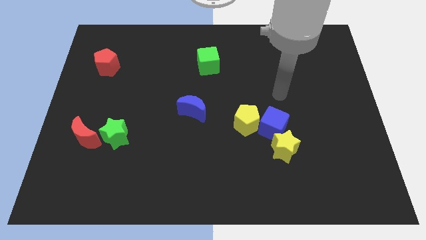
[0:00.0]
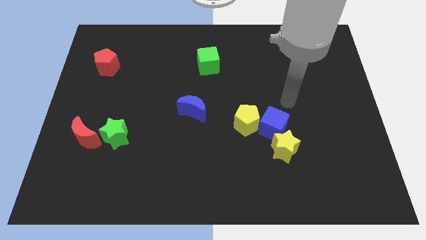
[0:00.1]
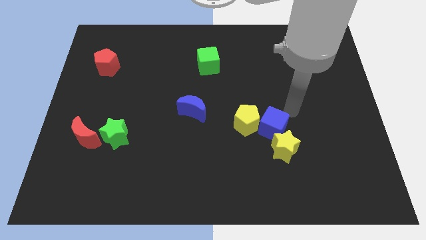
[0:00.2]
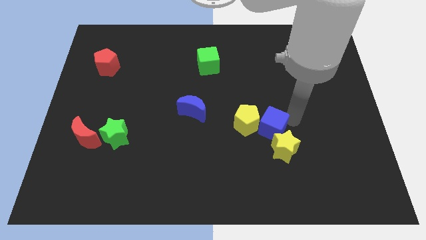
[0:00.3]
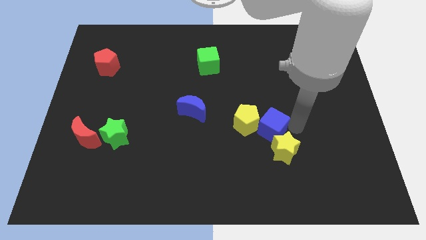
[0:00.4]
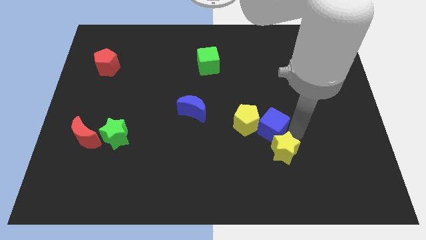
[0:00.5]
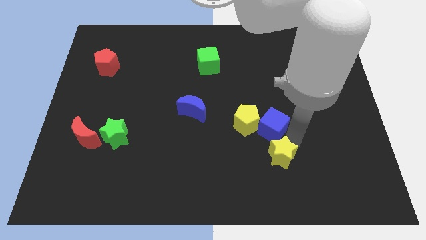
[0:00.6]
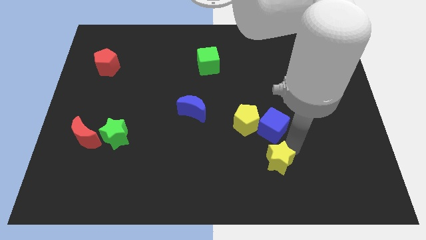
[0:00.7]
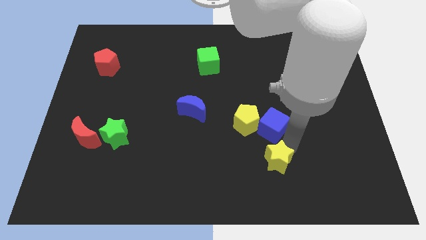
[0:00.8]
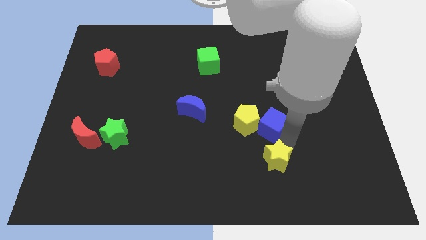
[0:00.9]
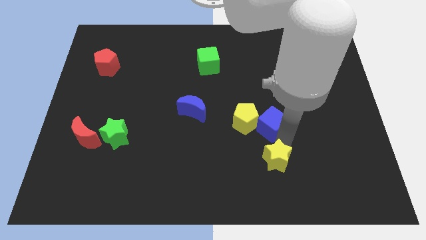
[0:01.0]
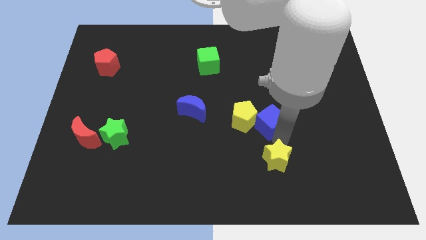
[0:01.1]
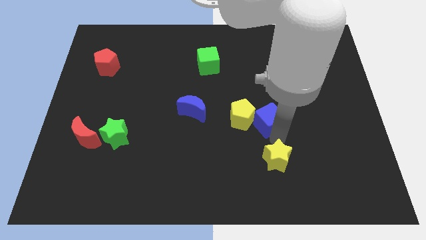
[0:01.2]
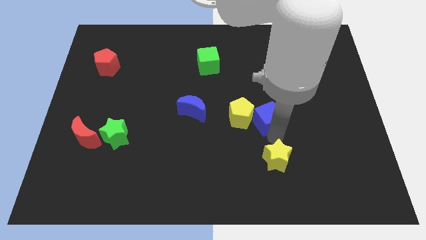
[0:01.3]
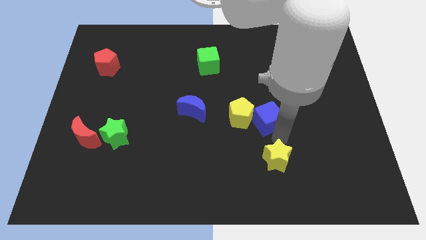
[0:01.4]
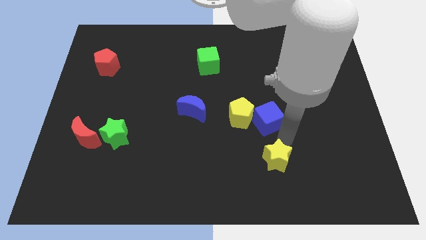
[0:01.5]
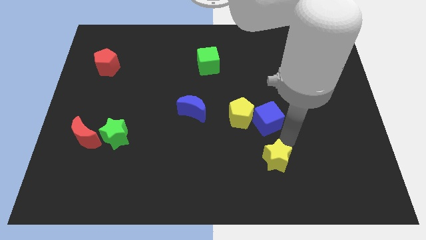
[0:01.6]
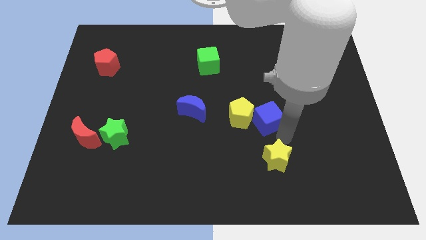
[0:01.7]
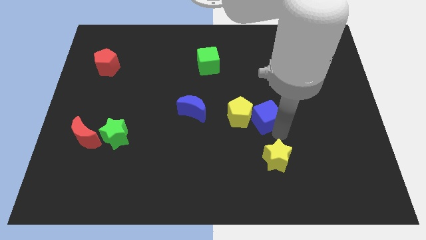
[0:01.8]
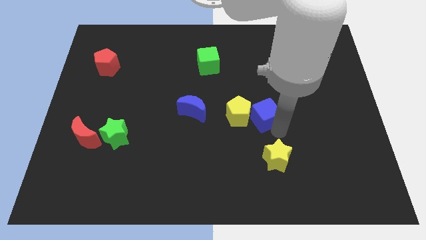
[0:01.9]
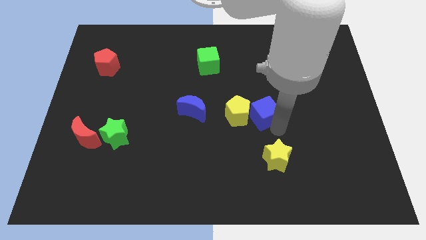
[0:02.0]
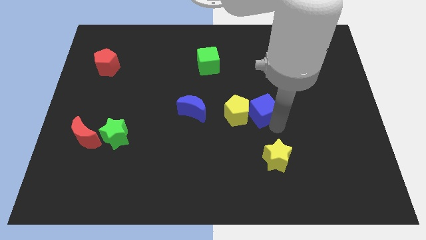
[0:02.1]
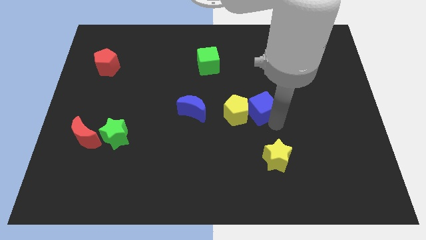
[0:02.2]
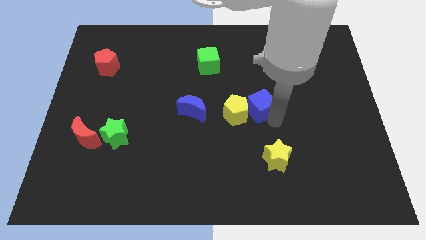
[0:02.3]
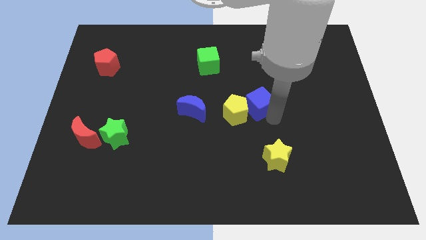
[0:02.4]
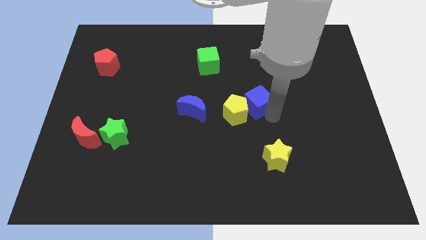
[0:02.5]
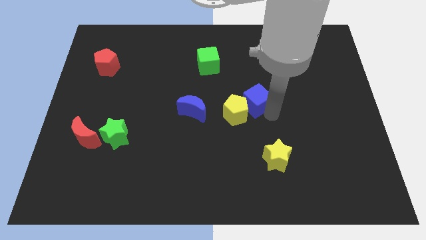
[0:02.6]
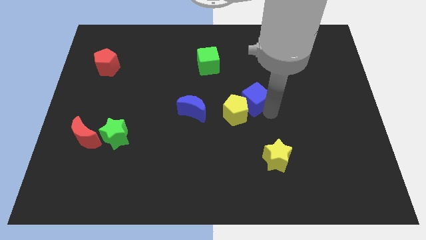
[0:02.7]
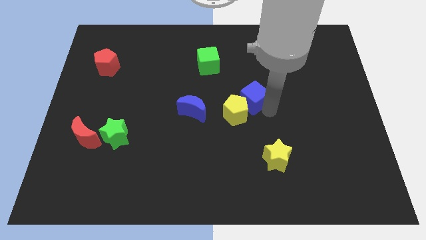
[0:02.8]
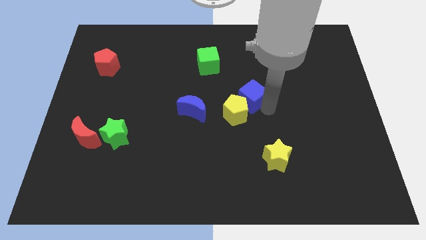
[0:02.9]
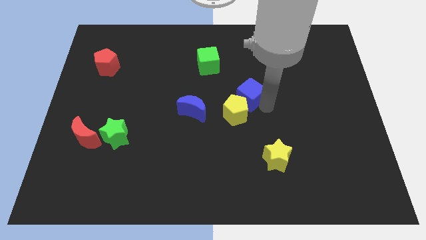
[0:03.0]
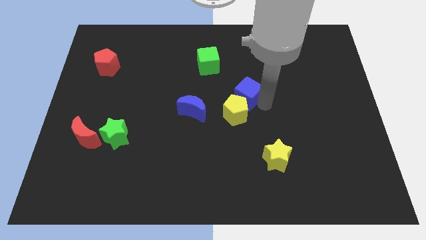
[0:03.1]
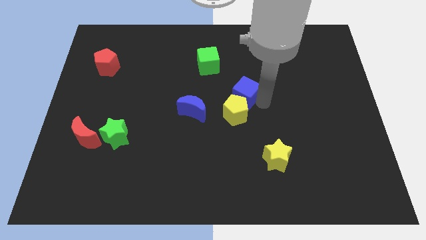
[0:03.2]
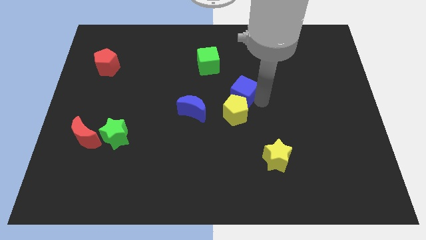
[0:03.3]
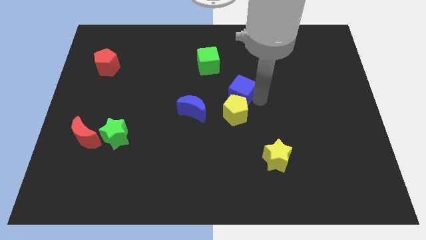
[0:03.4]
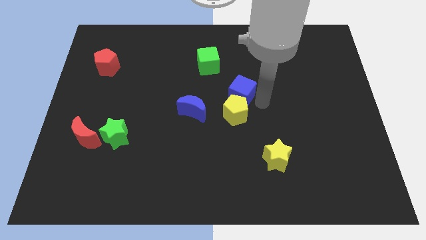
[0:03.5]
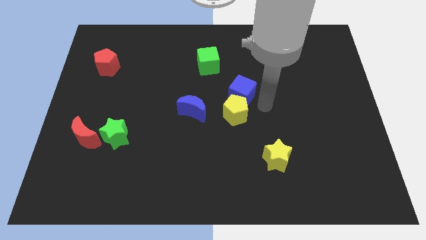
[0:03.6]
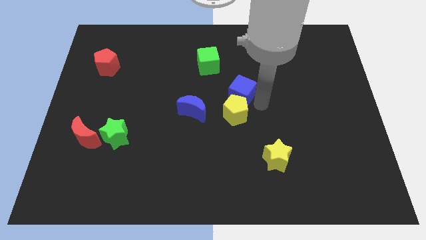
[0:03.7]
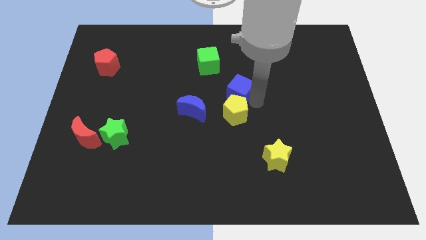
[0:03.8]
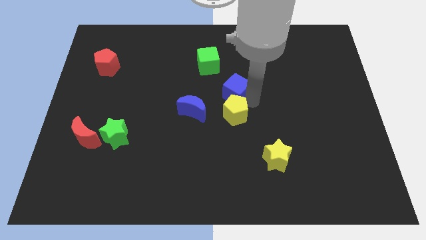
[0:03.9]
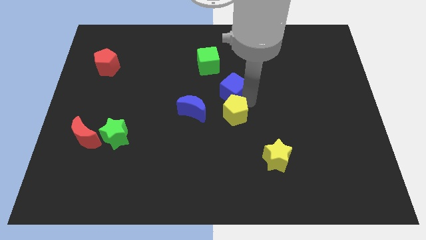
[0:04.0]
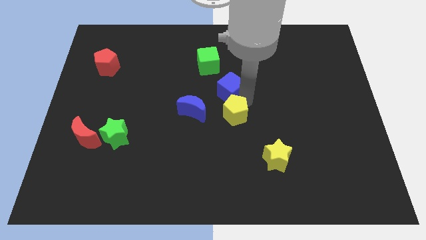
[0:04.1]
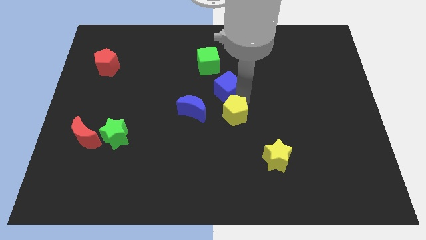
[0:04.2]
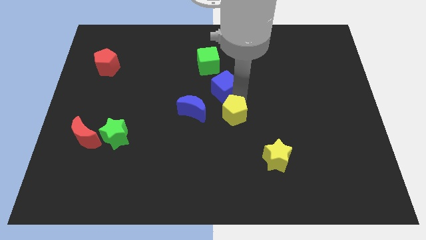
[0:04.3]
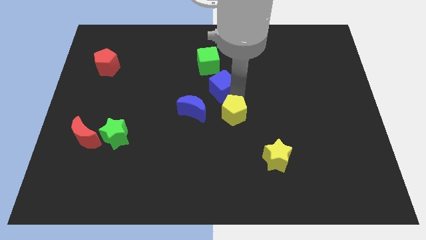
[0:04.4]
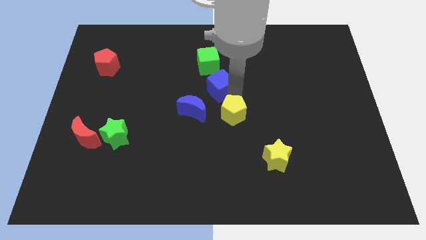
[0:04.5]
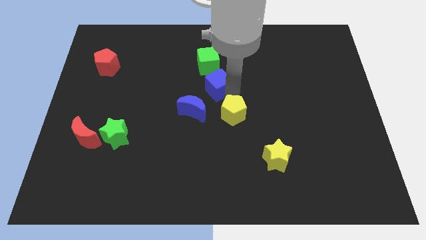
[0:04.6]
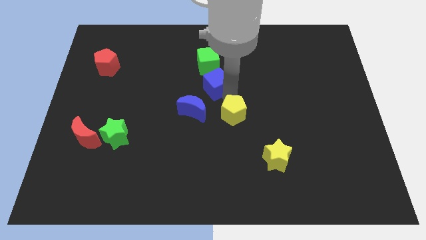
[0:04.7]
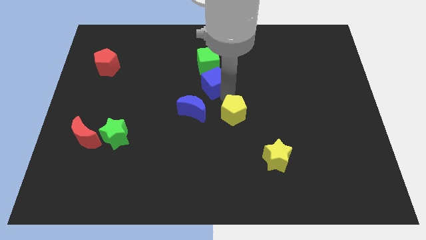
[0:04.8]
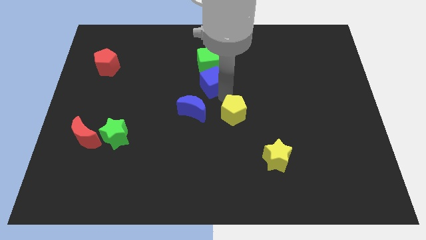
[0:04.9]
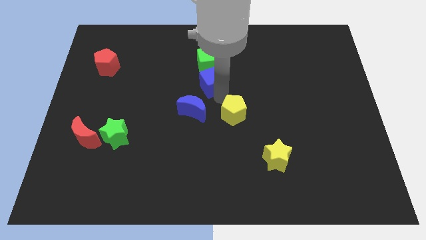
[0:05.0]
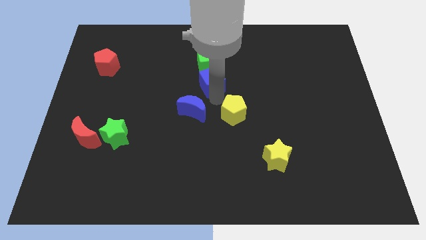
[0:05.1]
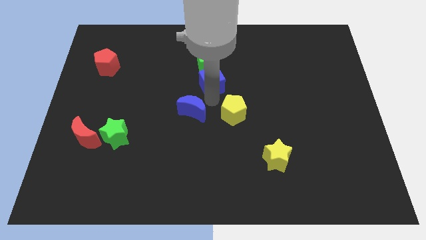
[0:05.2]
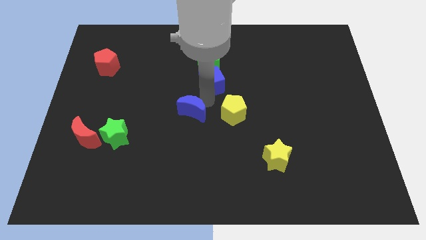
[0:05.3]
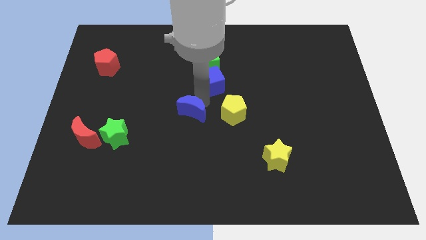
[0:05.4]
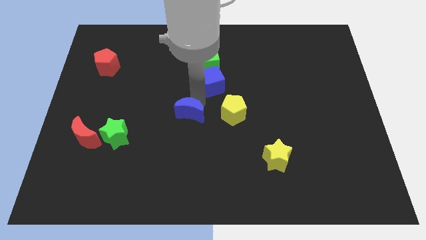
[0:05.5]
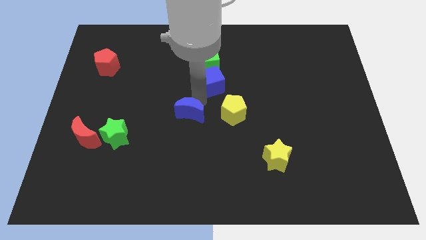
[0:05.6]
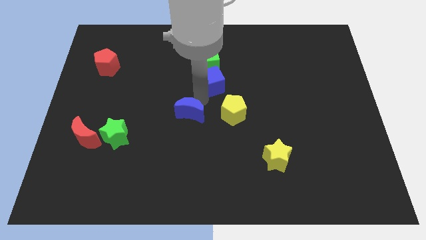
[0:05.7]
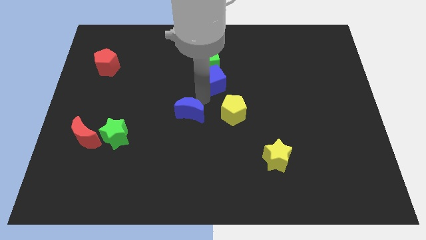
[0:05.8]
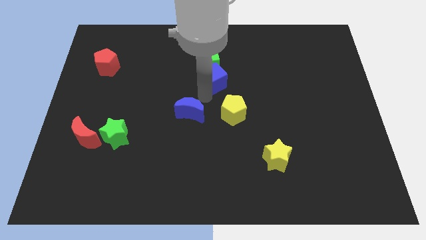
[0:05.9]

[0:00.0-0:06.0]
slide the blue cube towards the green cube
